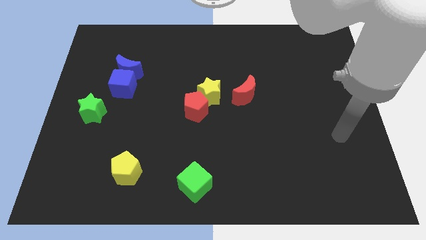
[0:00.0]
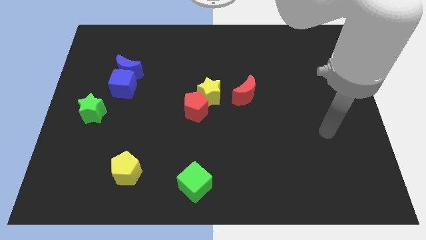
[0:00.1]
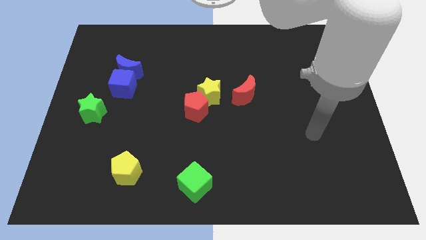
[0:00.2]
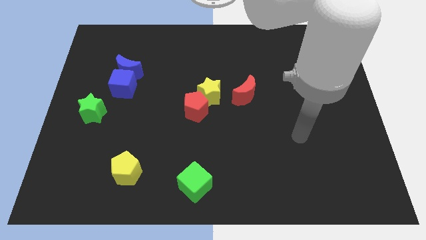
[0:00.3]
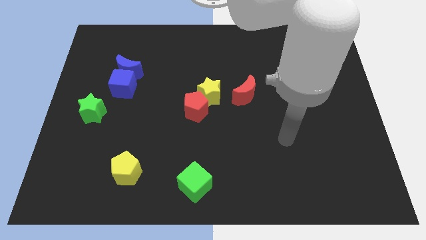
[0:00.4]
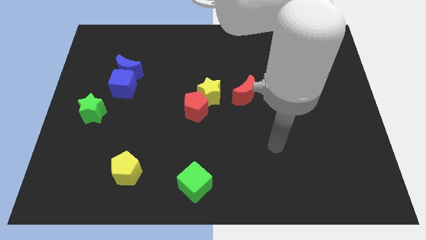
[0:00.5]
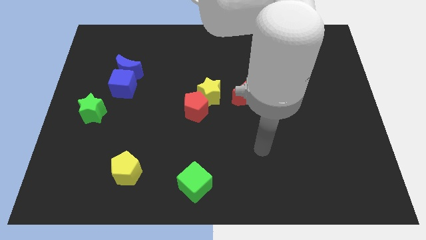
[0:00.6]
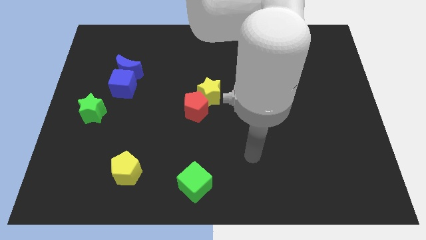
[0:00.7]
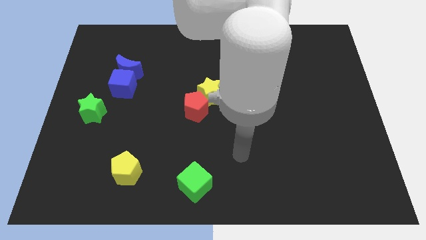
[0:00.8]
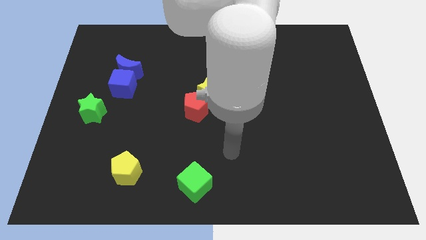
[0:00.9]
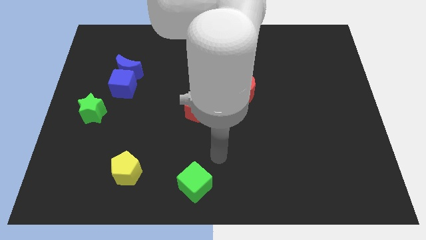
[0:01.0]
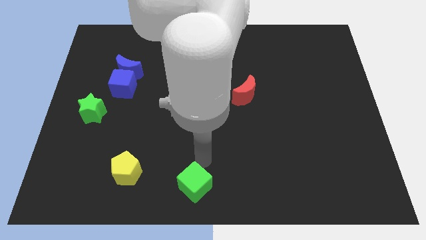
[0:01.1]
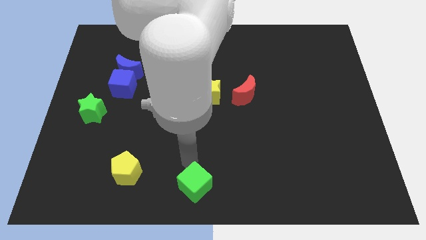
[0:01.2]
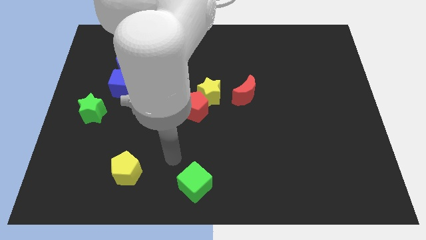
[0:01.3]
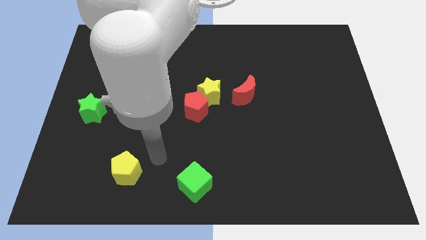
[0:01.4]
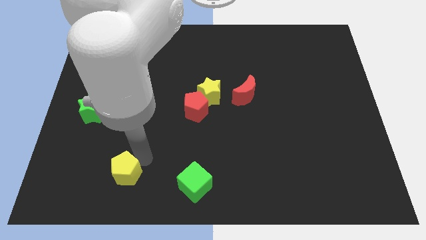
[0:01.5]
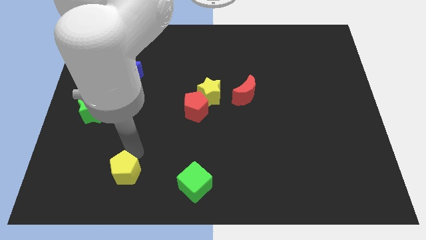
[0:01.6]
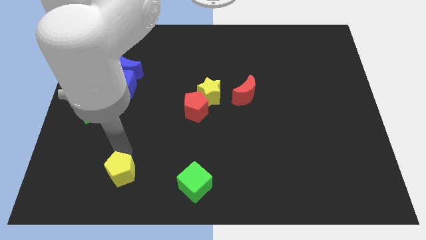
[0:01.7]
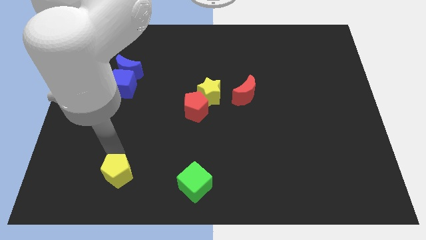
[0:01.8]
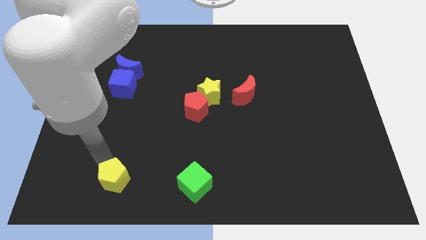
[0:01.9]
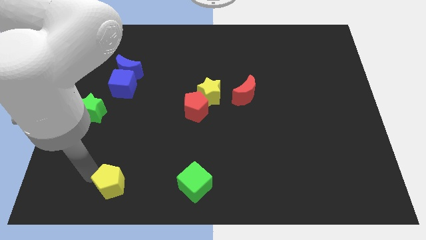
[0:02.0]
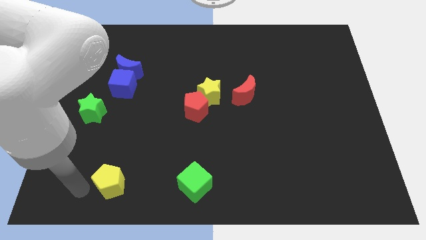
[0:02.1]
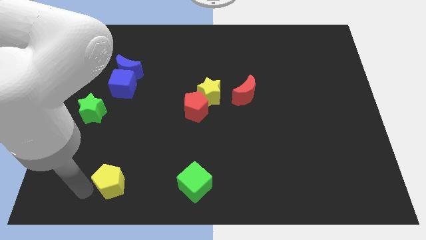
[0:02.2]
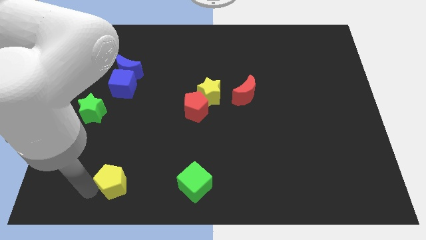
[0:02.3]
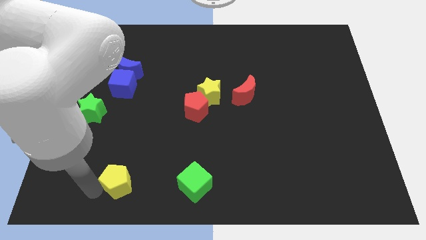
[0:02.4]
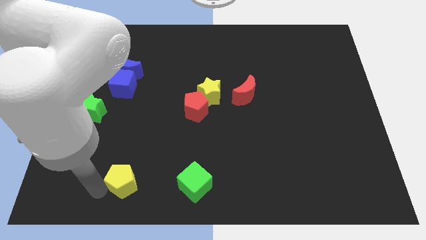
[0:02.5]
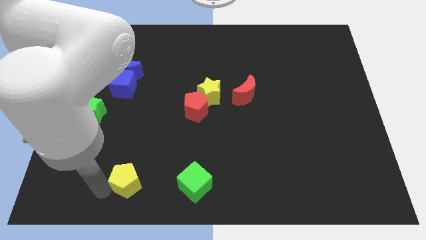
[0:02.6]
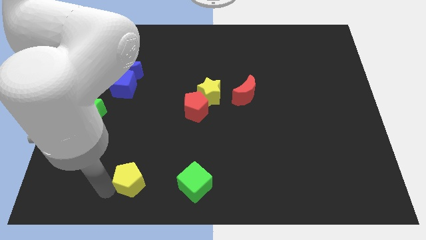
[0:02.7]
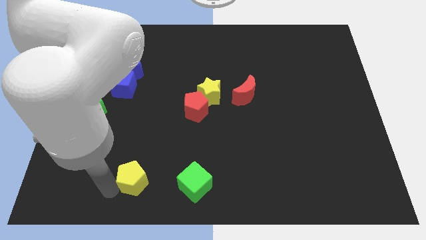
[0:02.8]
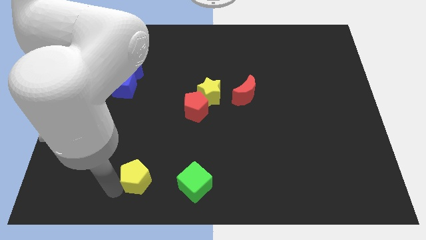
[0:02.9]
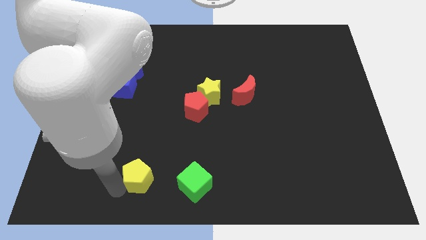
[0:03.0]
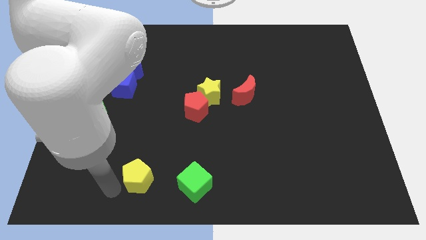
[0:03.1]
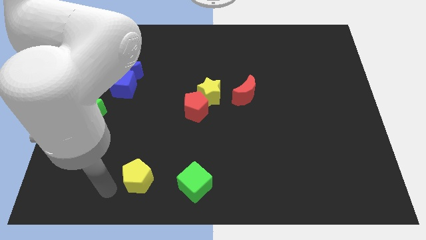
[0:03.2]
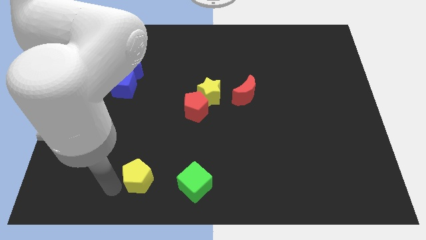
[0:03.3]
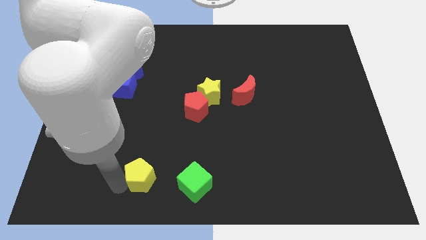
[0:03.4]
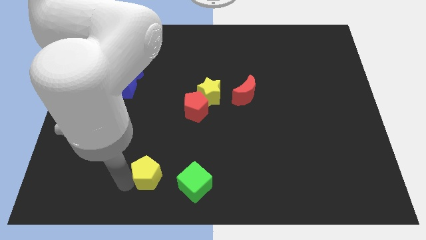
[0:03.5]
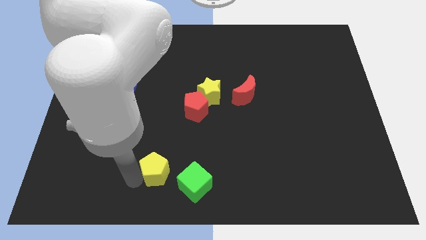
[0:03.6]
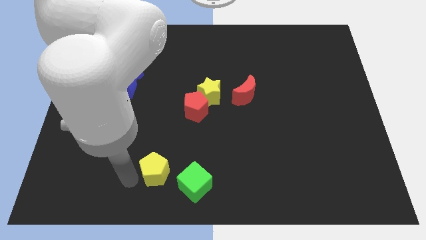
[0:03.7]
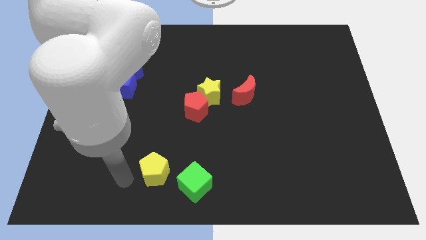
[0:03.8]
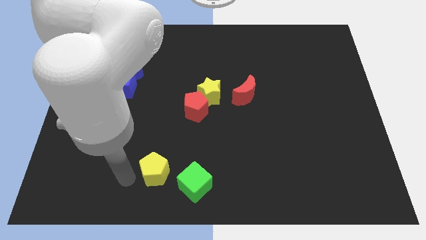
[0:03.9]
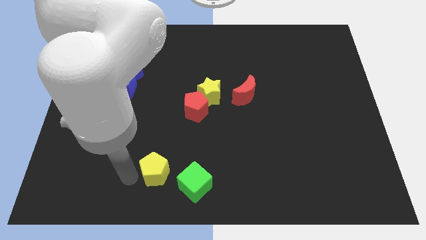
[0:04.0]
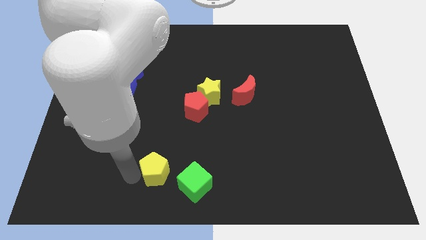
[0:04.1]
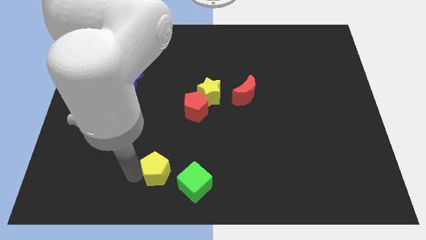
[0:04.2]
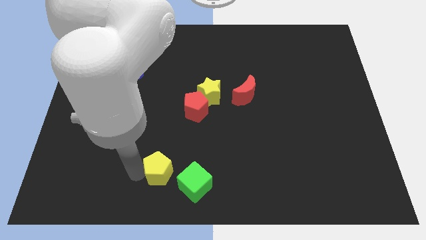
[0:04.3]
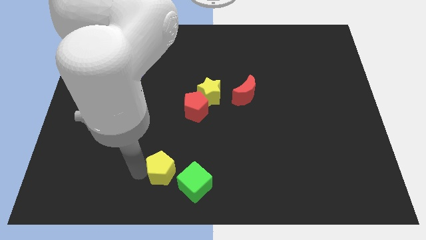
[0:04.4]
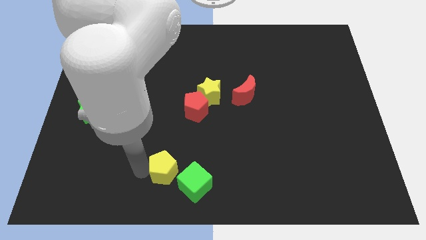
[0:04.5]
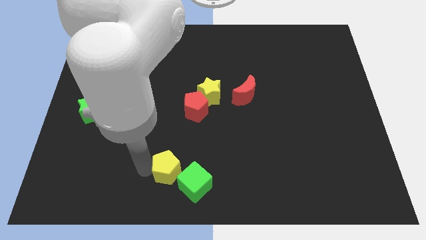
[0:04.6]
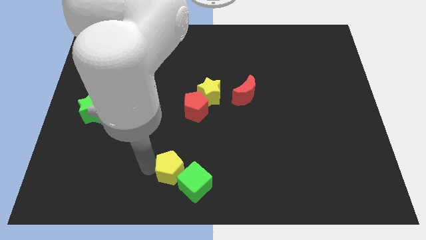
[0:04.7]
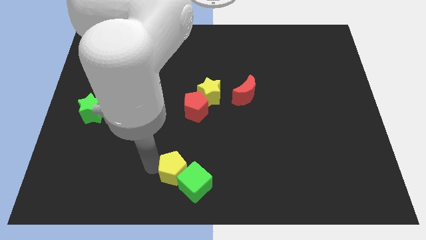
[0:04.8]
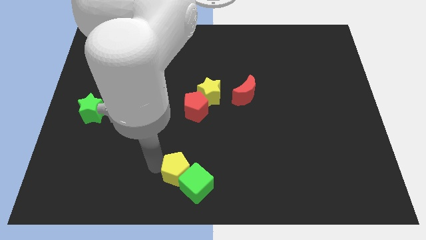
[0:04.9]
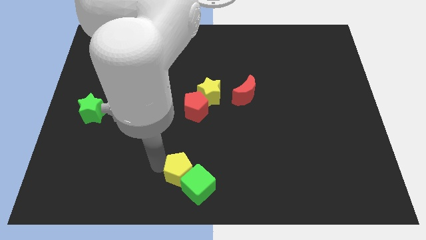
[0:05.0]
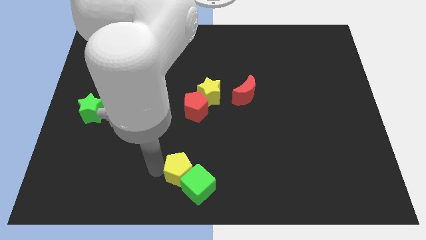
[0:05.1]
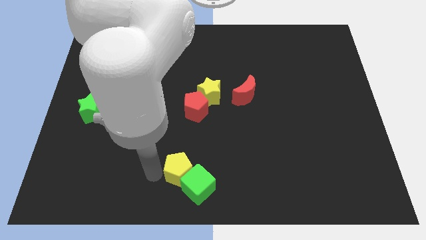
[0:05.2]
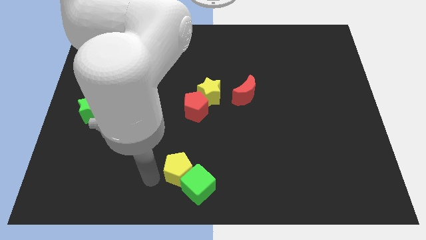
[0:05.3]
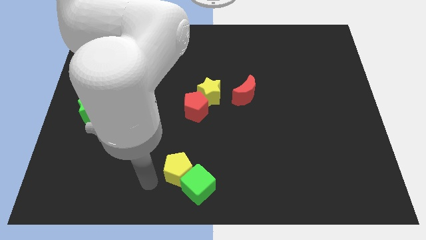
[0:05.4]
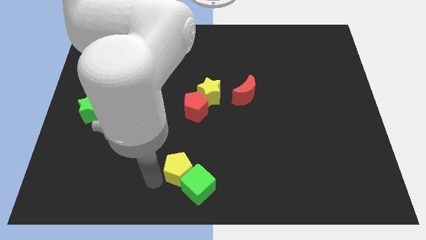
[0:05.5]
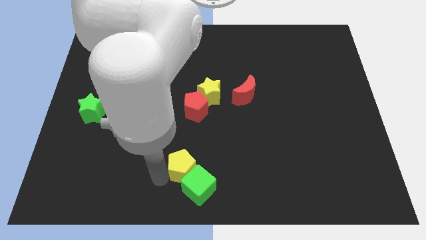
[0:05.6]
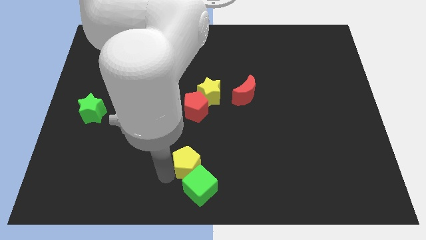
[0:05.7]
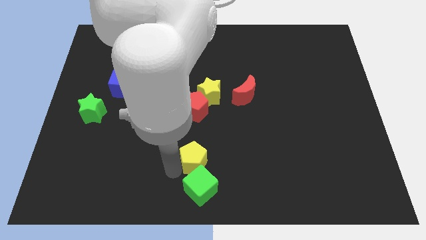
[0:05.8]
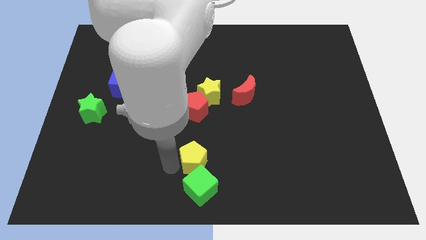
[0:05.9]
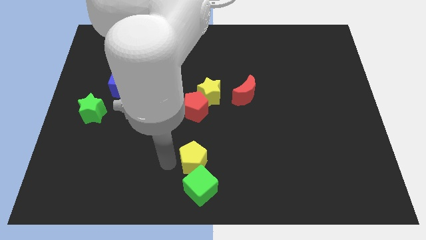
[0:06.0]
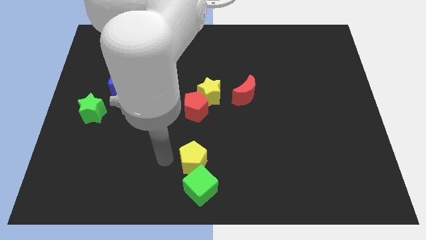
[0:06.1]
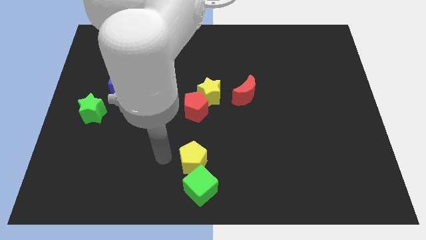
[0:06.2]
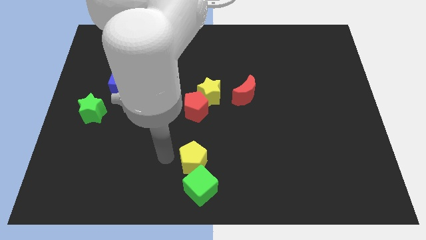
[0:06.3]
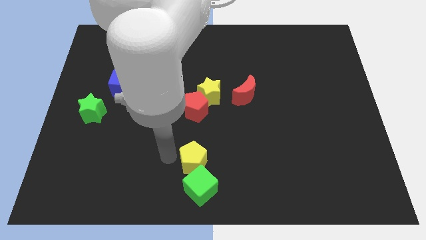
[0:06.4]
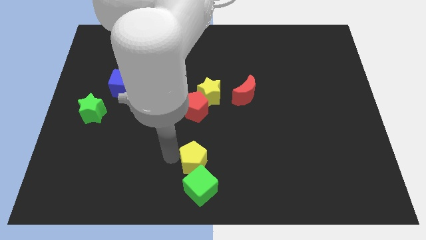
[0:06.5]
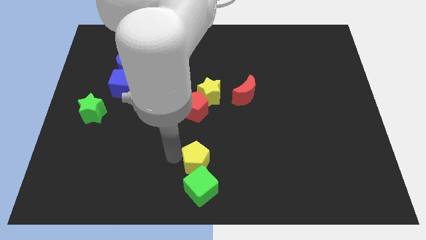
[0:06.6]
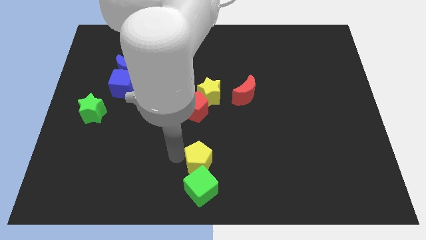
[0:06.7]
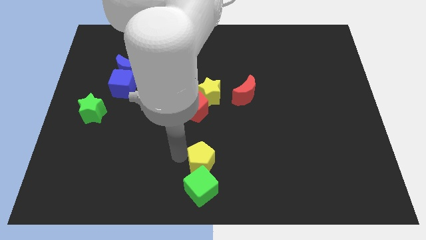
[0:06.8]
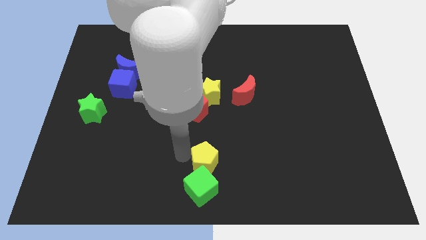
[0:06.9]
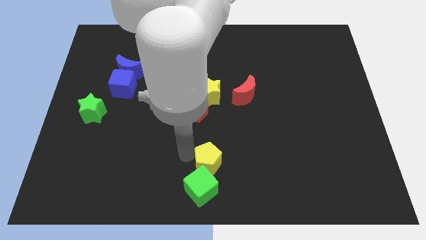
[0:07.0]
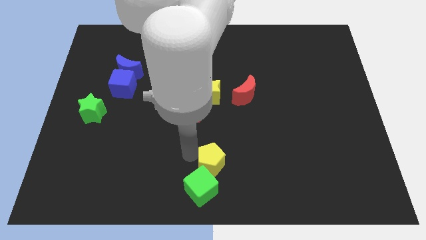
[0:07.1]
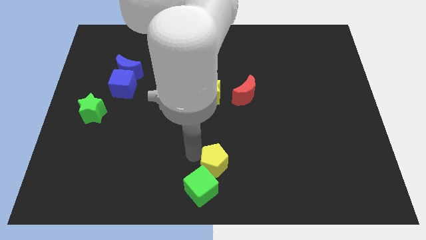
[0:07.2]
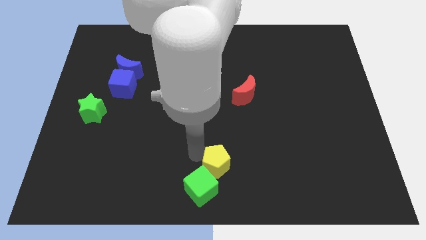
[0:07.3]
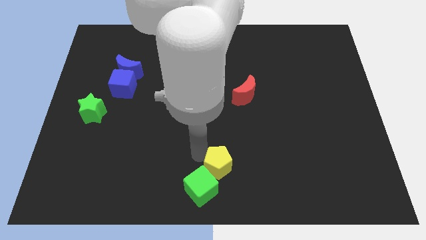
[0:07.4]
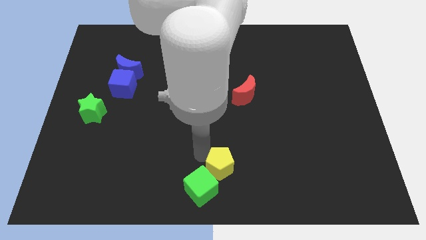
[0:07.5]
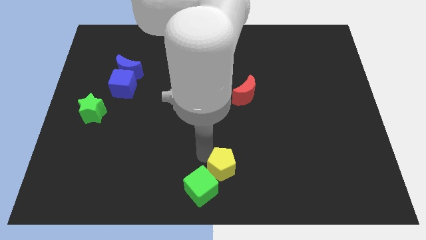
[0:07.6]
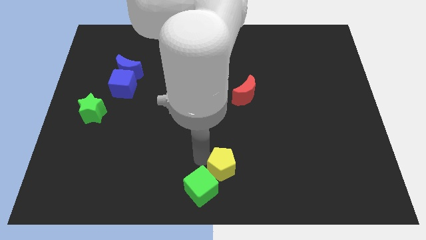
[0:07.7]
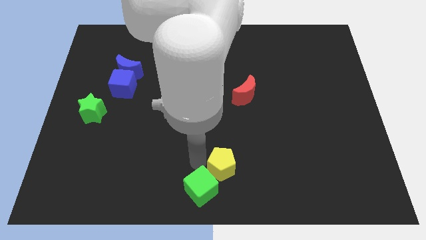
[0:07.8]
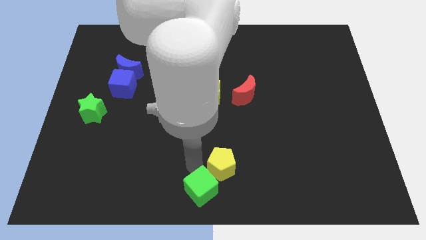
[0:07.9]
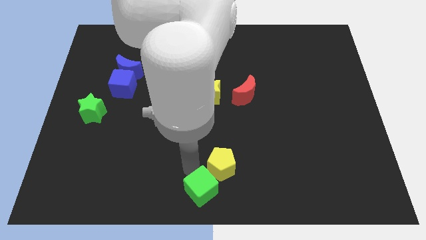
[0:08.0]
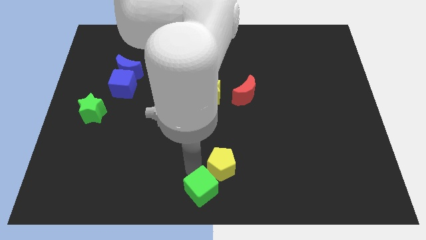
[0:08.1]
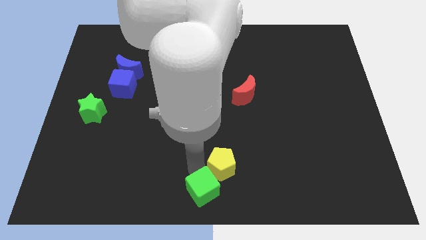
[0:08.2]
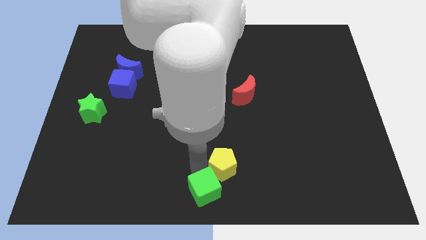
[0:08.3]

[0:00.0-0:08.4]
move the yellow pentagon right
